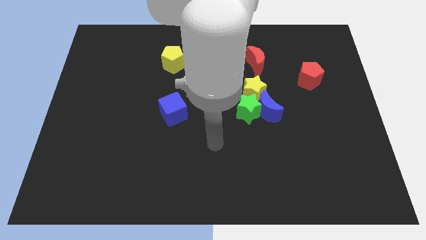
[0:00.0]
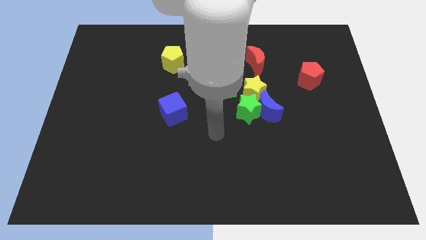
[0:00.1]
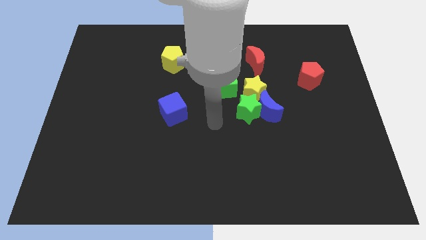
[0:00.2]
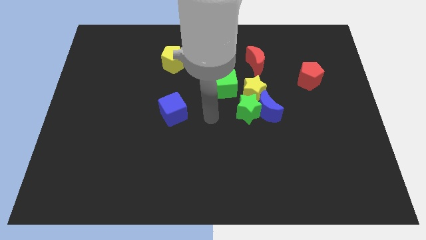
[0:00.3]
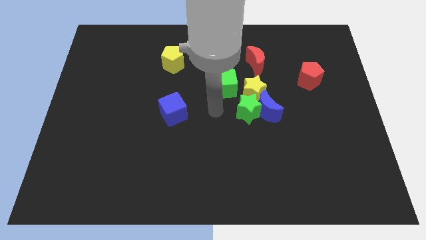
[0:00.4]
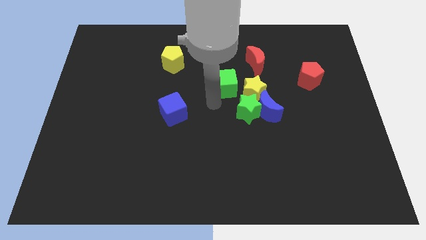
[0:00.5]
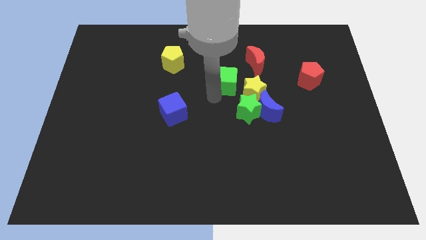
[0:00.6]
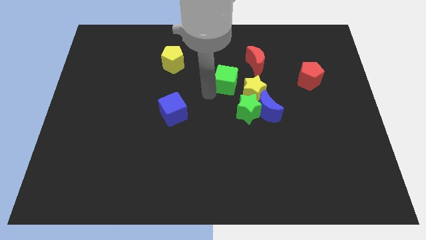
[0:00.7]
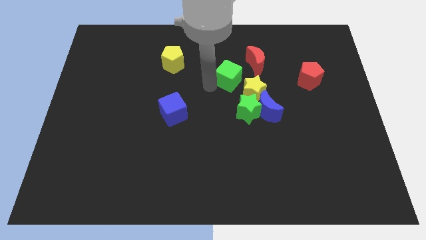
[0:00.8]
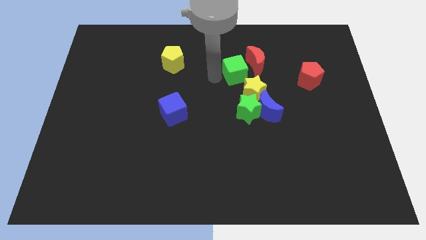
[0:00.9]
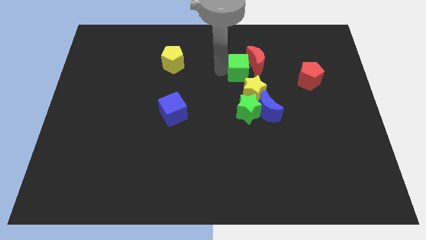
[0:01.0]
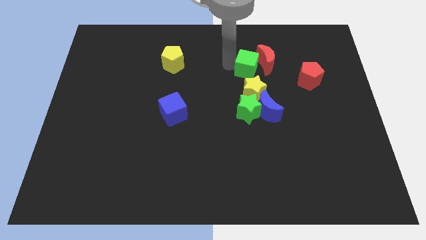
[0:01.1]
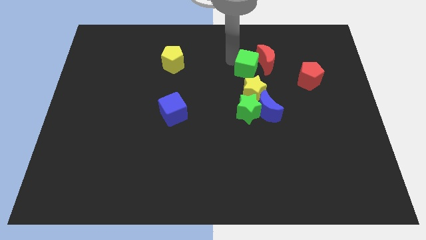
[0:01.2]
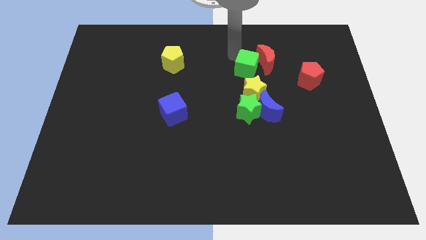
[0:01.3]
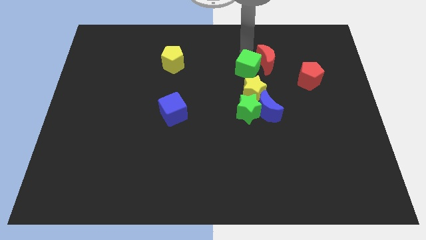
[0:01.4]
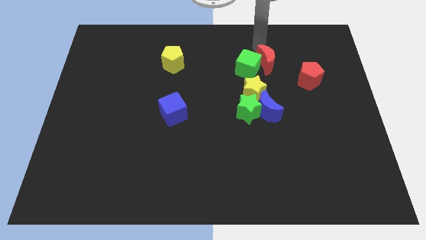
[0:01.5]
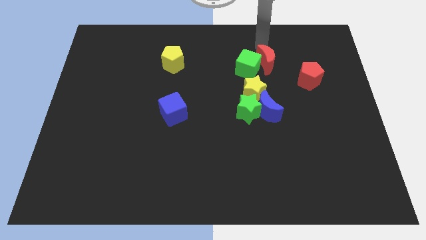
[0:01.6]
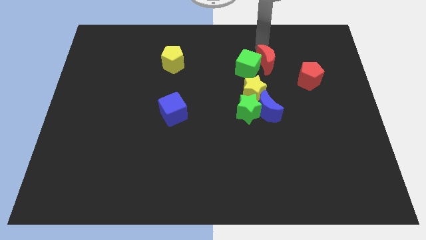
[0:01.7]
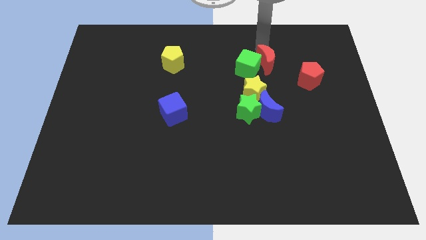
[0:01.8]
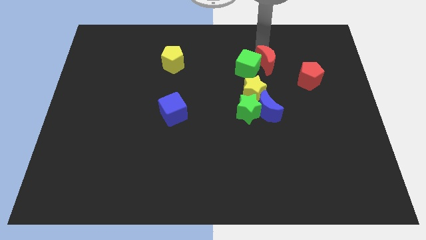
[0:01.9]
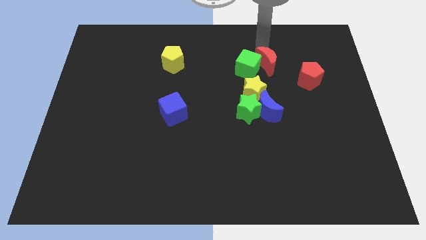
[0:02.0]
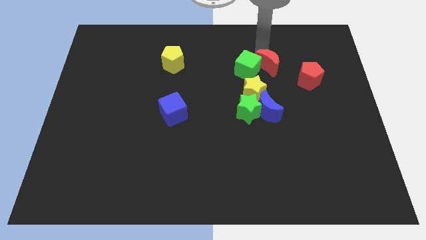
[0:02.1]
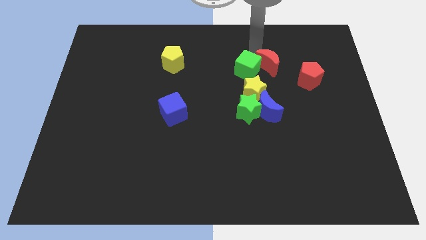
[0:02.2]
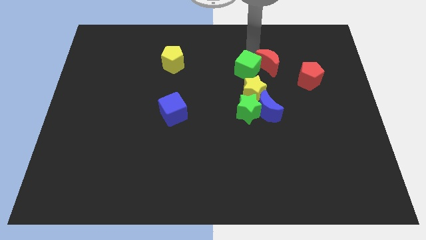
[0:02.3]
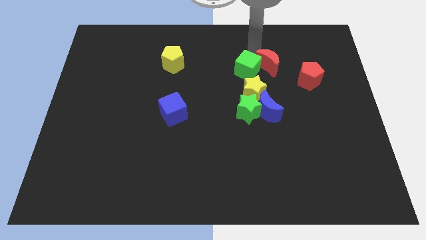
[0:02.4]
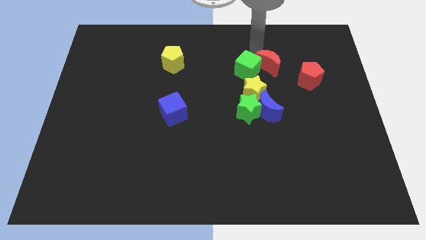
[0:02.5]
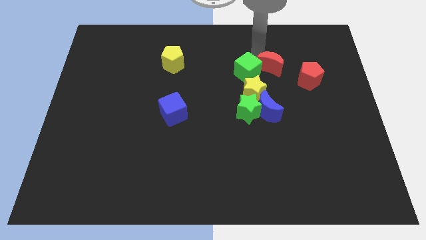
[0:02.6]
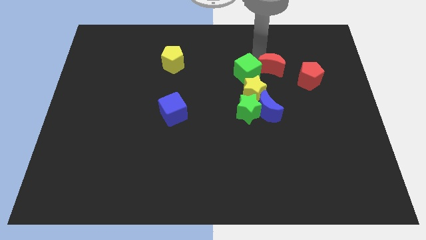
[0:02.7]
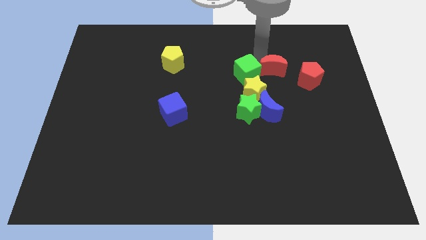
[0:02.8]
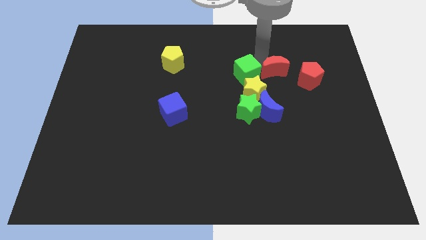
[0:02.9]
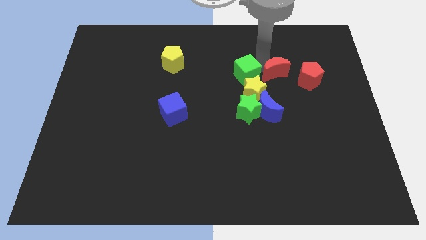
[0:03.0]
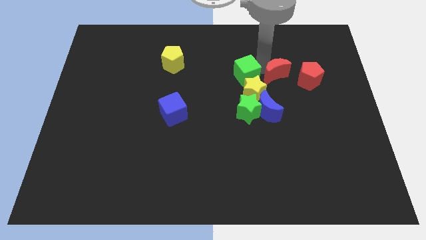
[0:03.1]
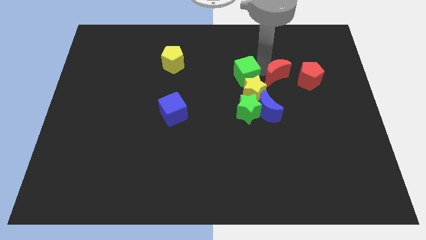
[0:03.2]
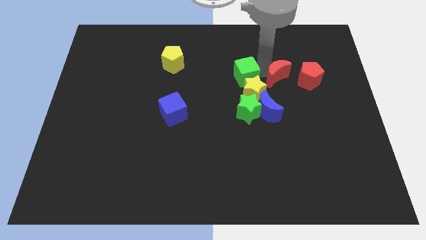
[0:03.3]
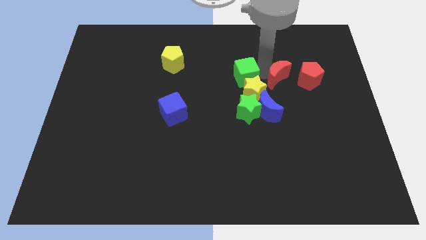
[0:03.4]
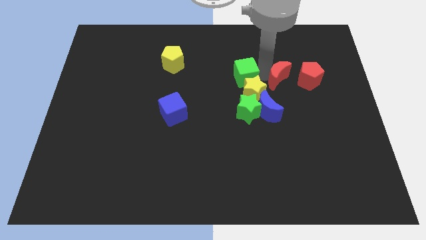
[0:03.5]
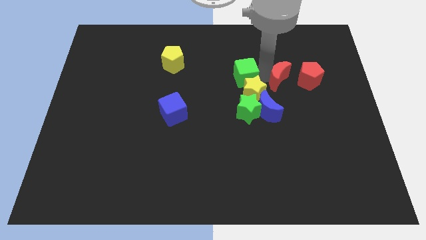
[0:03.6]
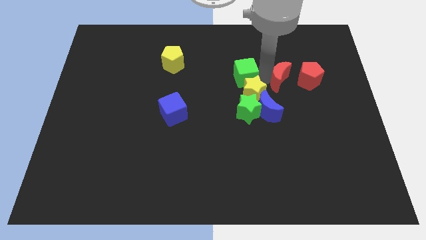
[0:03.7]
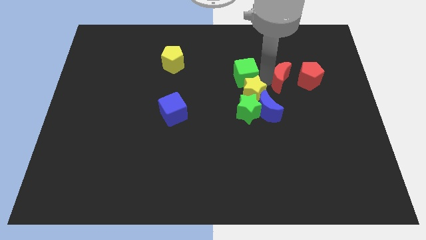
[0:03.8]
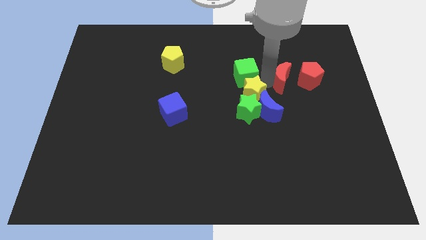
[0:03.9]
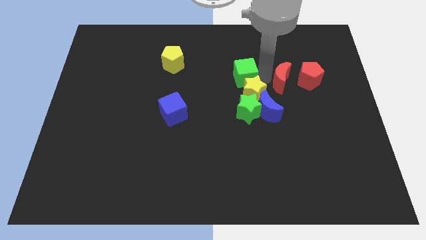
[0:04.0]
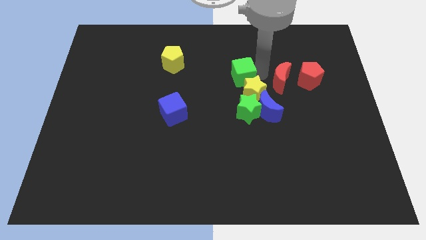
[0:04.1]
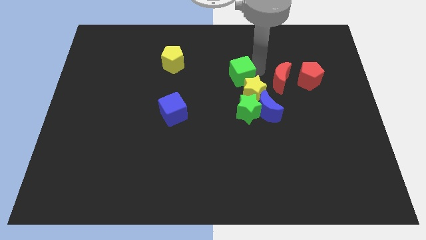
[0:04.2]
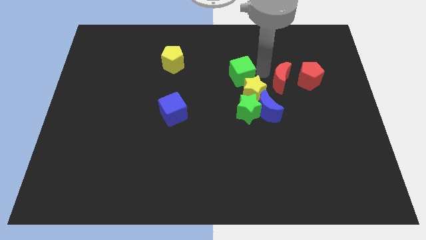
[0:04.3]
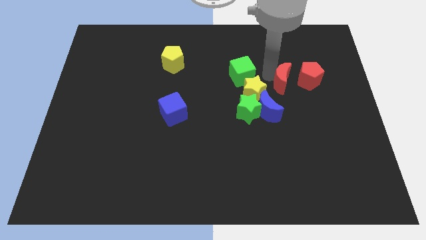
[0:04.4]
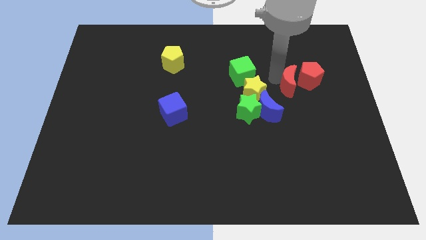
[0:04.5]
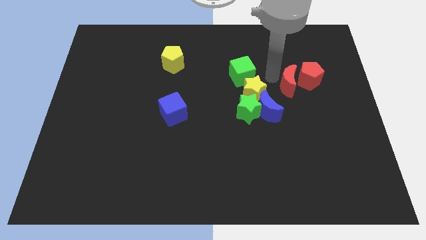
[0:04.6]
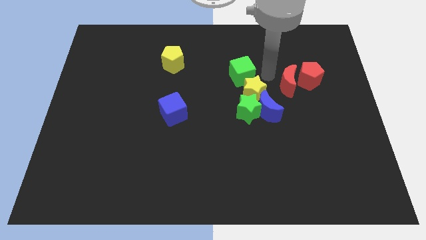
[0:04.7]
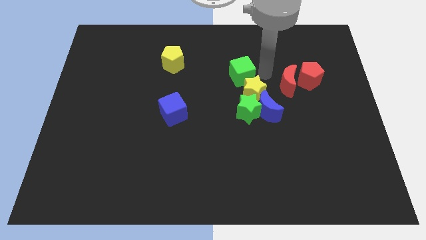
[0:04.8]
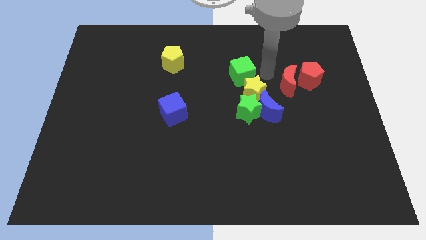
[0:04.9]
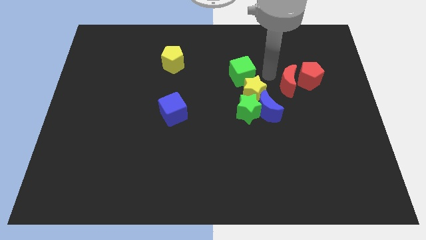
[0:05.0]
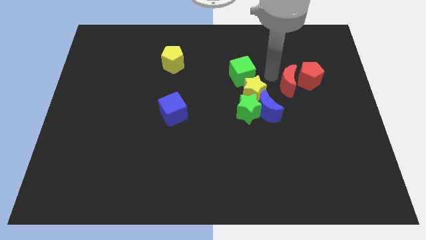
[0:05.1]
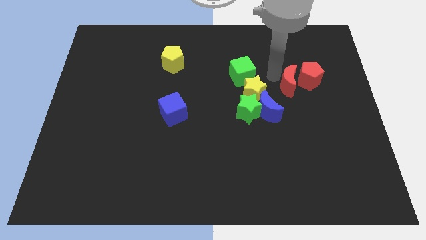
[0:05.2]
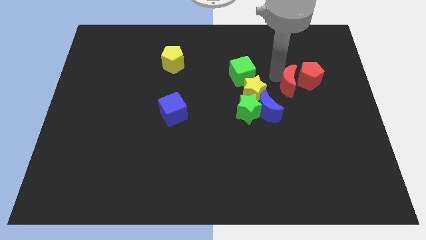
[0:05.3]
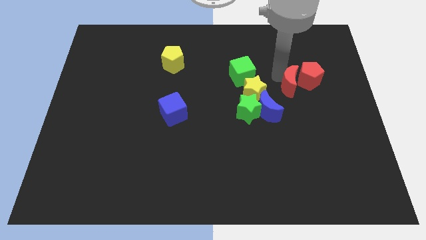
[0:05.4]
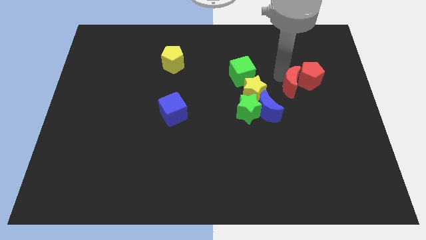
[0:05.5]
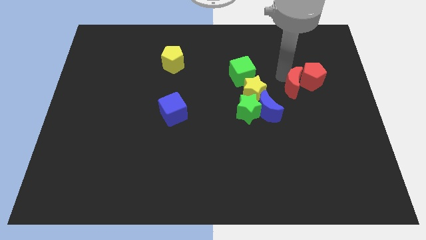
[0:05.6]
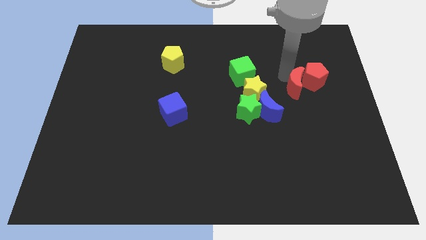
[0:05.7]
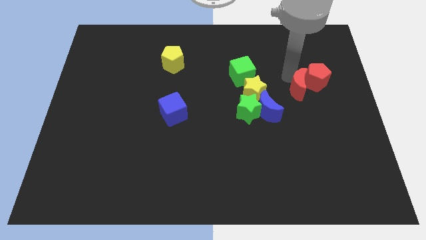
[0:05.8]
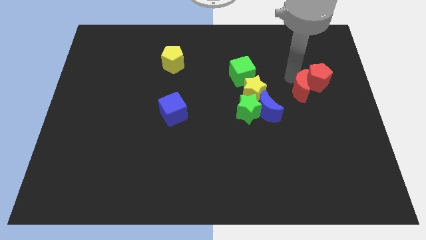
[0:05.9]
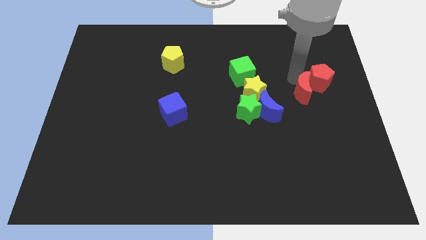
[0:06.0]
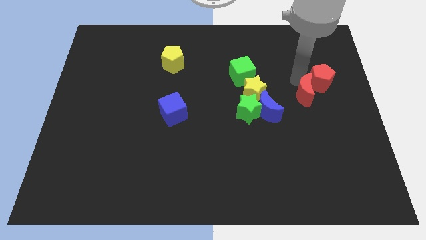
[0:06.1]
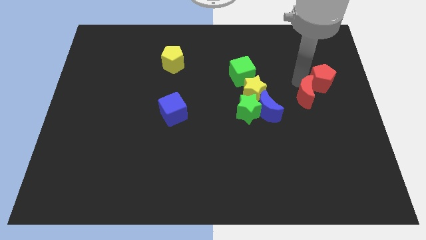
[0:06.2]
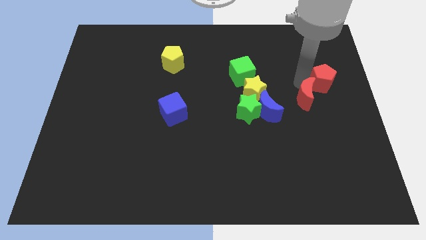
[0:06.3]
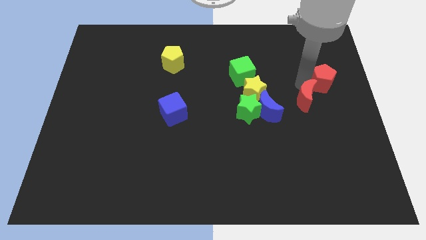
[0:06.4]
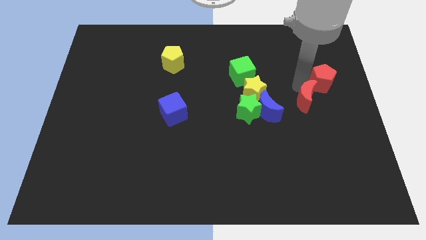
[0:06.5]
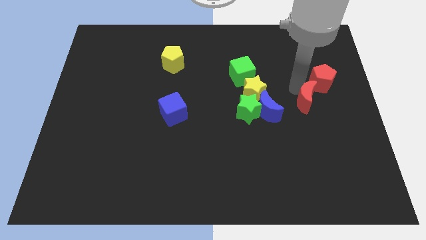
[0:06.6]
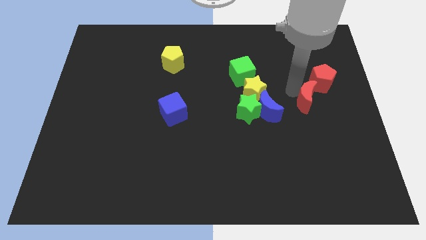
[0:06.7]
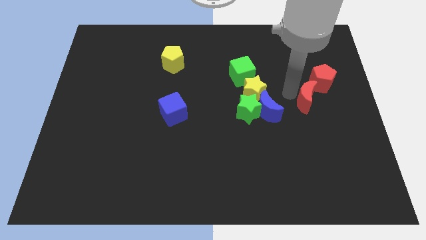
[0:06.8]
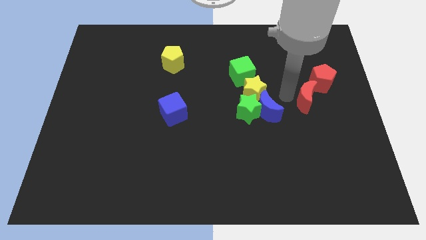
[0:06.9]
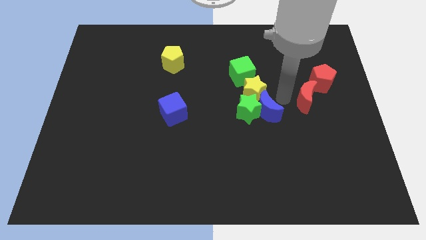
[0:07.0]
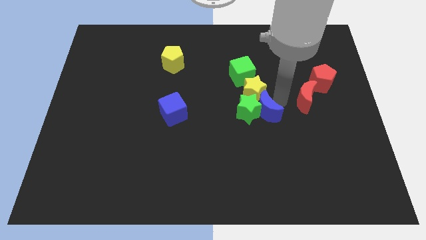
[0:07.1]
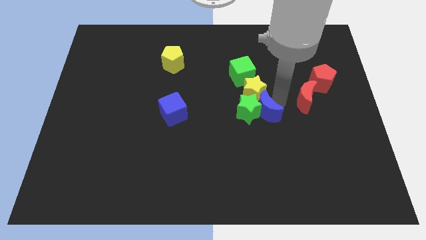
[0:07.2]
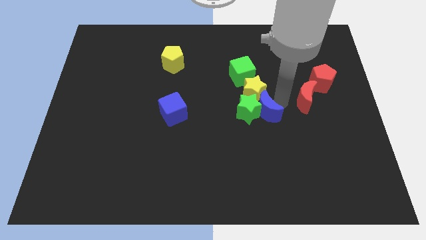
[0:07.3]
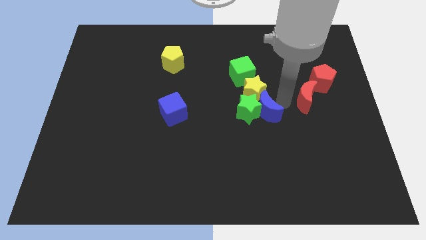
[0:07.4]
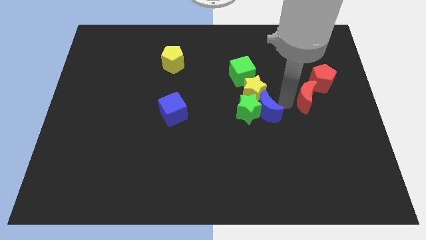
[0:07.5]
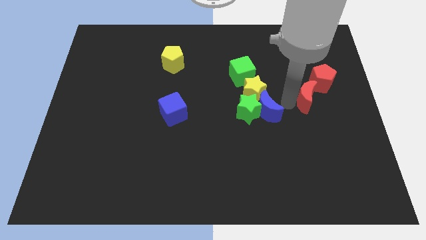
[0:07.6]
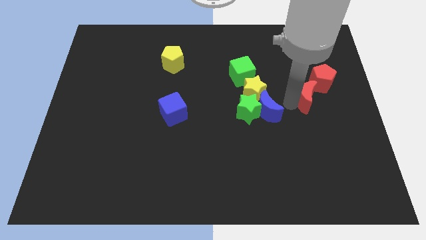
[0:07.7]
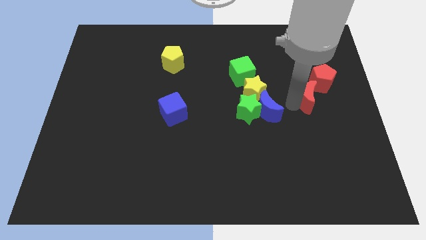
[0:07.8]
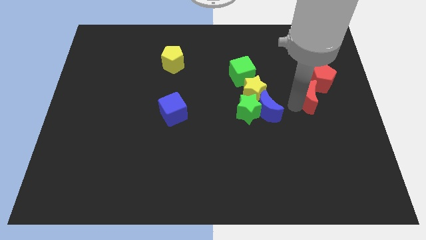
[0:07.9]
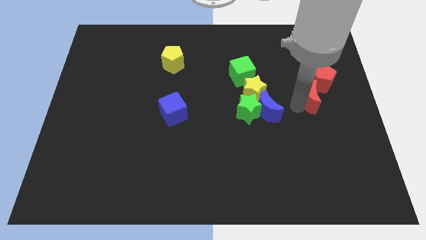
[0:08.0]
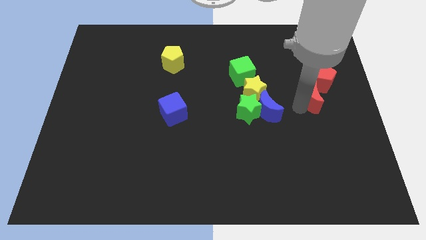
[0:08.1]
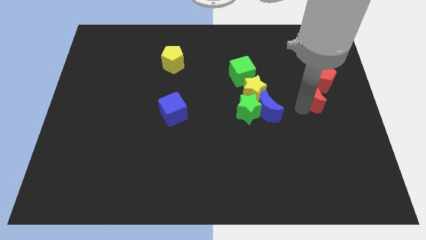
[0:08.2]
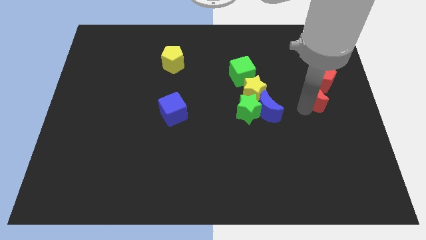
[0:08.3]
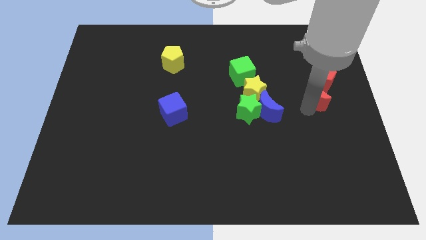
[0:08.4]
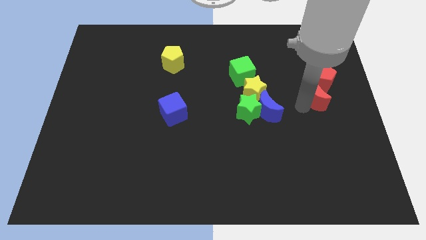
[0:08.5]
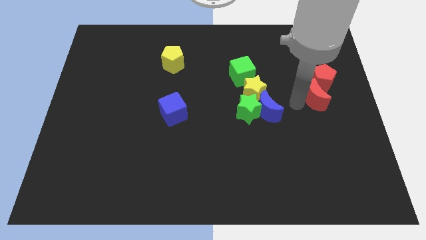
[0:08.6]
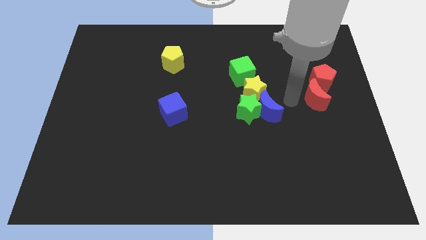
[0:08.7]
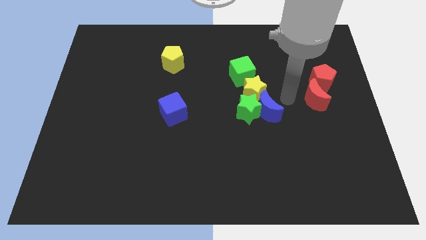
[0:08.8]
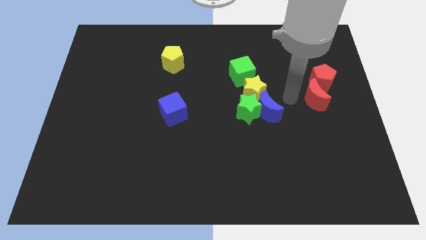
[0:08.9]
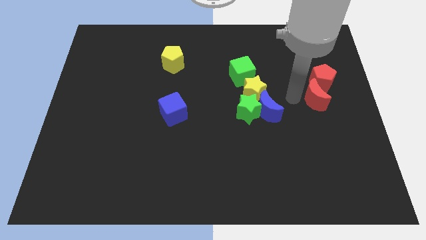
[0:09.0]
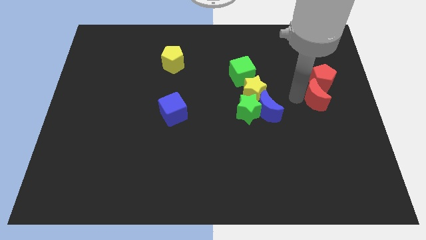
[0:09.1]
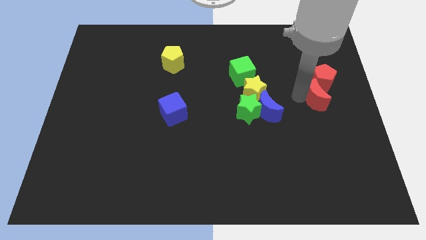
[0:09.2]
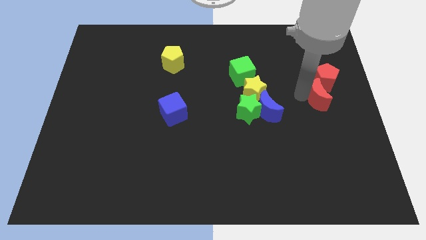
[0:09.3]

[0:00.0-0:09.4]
slide the red moon to the center right
